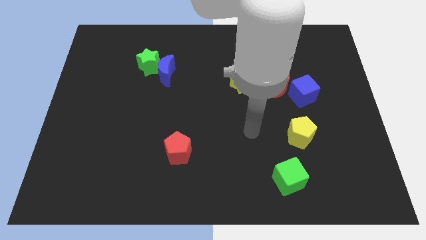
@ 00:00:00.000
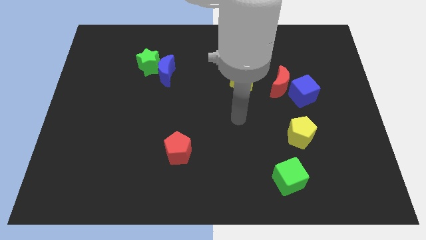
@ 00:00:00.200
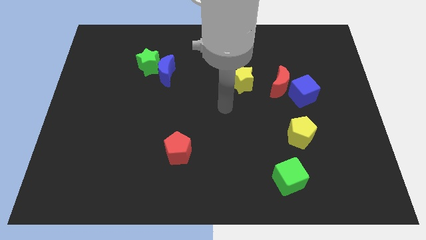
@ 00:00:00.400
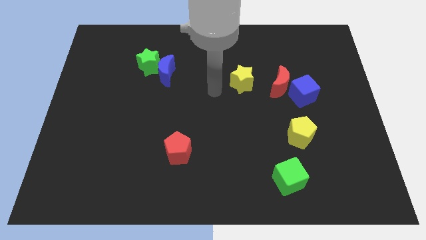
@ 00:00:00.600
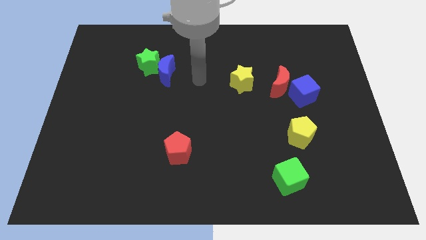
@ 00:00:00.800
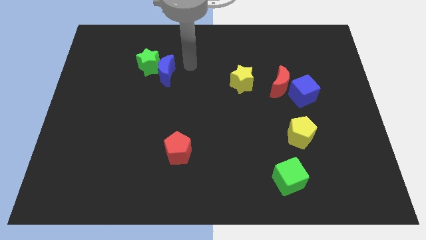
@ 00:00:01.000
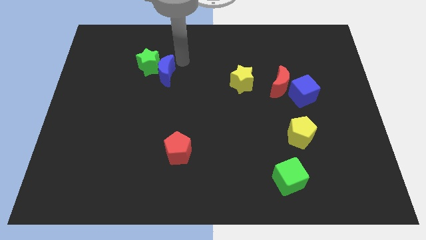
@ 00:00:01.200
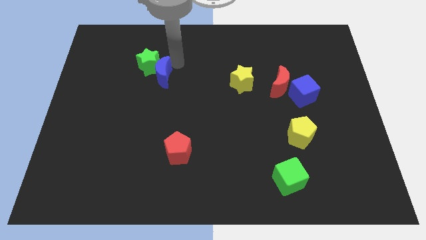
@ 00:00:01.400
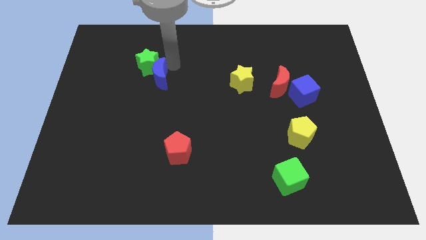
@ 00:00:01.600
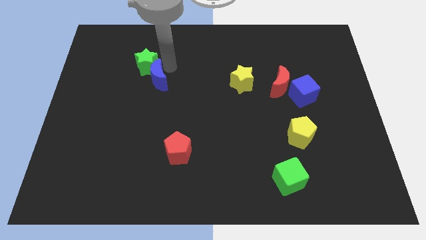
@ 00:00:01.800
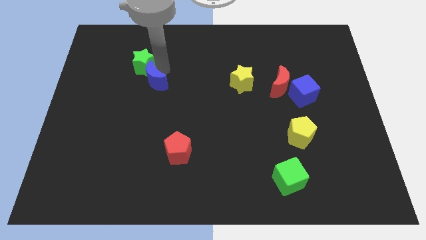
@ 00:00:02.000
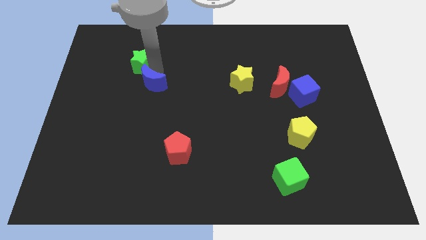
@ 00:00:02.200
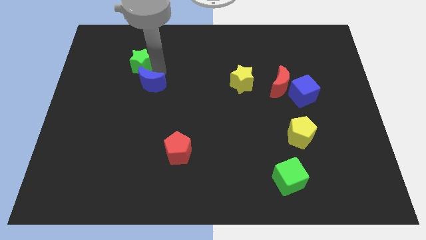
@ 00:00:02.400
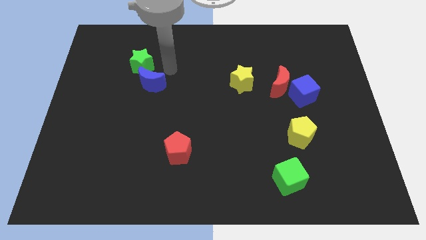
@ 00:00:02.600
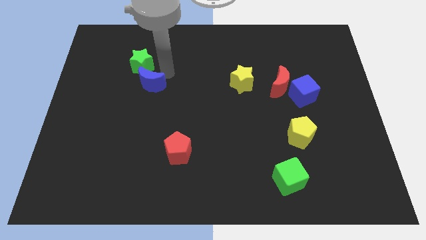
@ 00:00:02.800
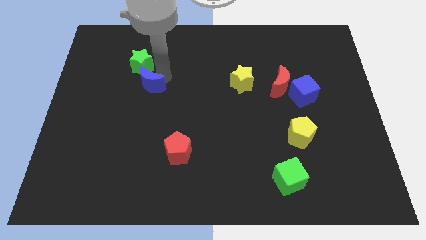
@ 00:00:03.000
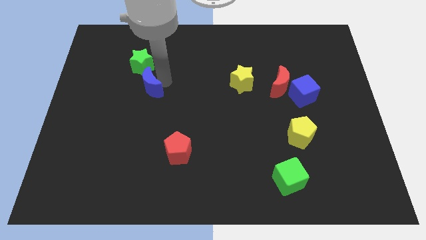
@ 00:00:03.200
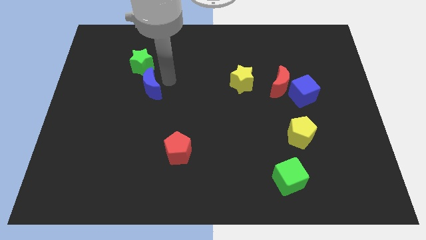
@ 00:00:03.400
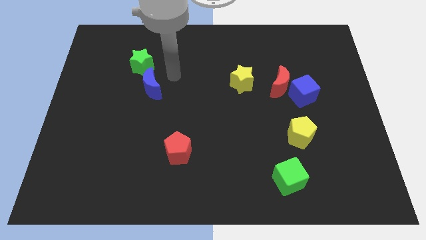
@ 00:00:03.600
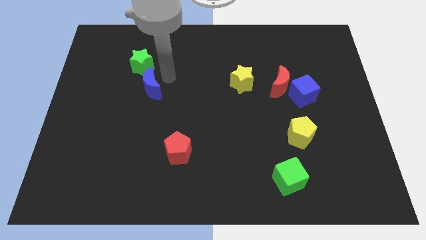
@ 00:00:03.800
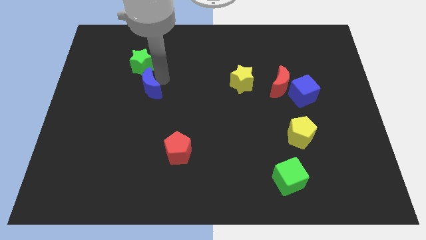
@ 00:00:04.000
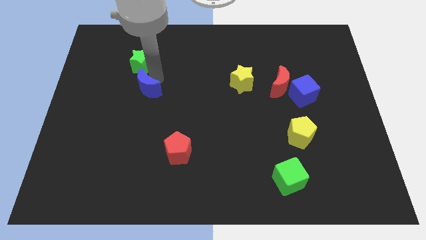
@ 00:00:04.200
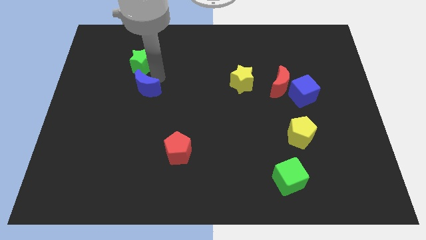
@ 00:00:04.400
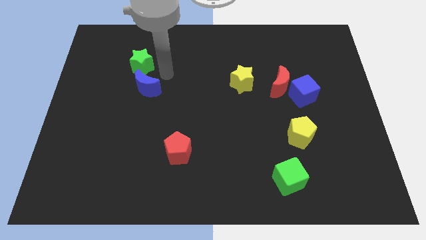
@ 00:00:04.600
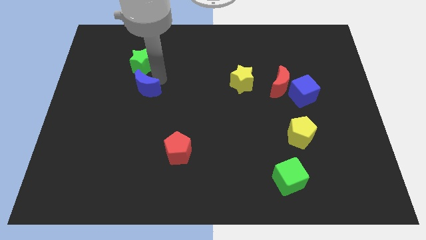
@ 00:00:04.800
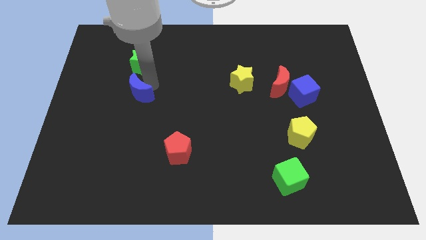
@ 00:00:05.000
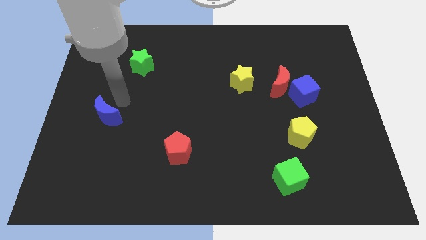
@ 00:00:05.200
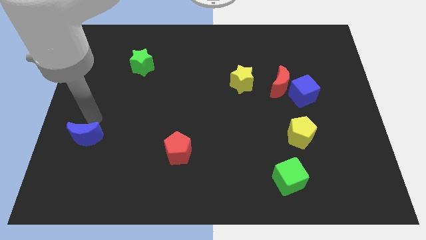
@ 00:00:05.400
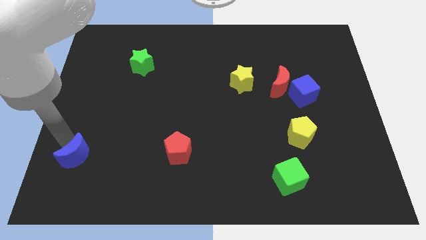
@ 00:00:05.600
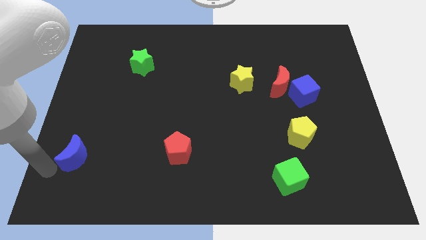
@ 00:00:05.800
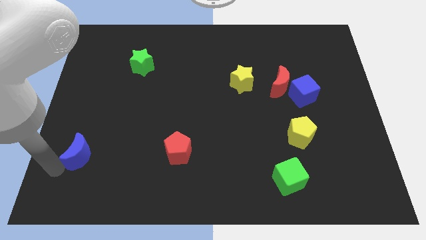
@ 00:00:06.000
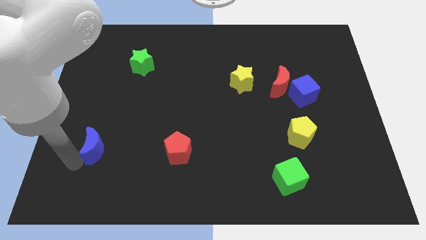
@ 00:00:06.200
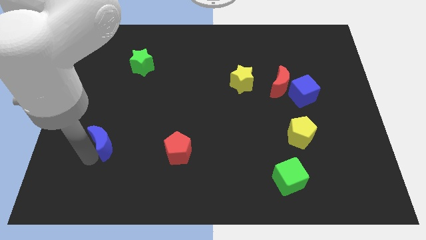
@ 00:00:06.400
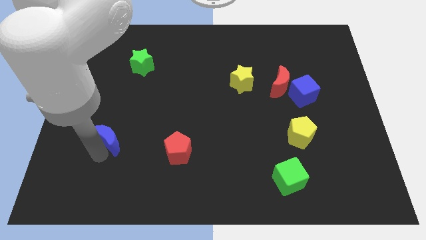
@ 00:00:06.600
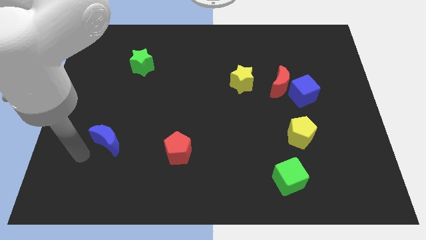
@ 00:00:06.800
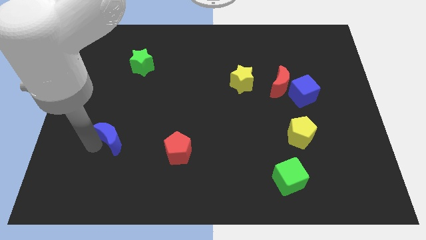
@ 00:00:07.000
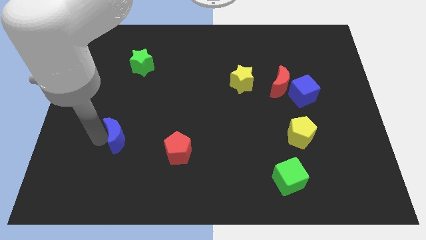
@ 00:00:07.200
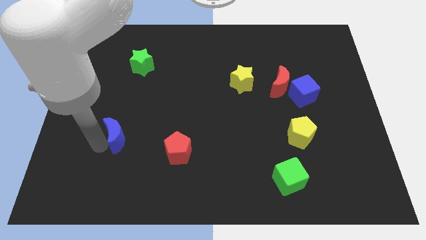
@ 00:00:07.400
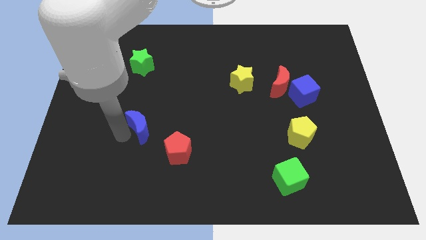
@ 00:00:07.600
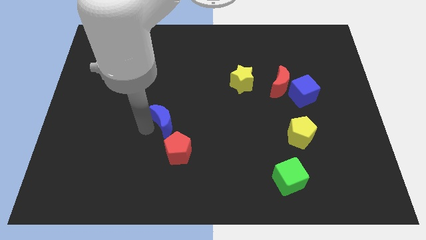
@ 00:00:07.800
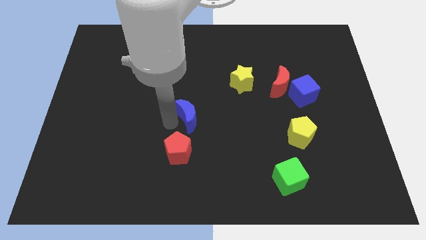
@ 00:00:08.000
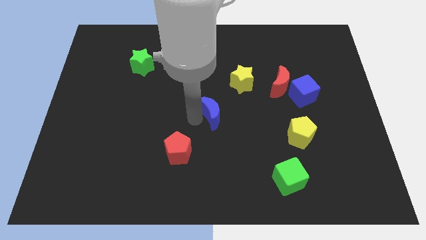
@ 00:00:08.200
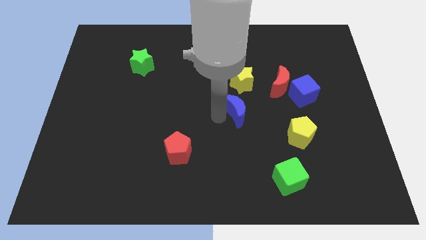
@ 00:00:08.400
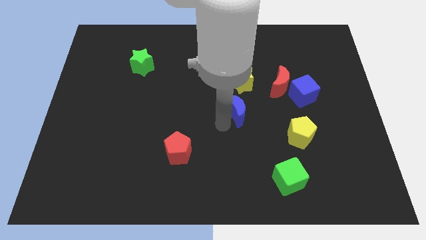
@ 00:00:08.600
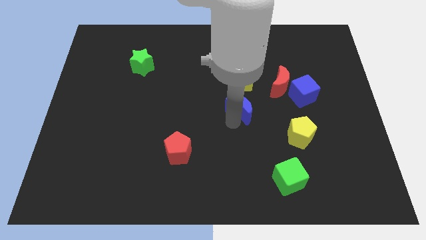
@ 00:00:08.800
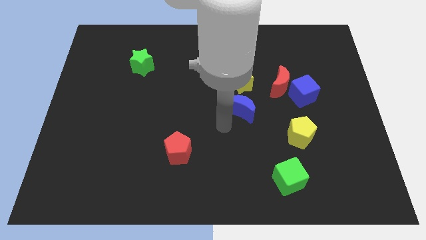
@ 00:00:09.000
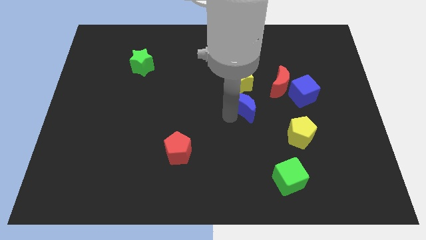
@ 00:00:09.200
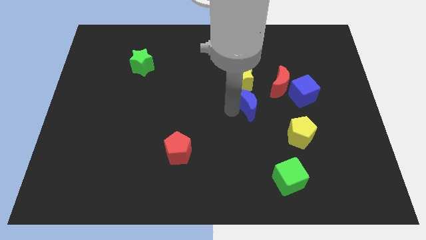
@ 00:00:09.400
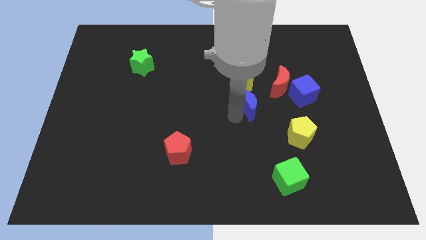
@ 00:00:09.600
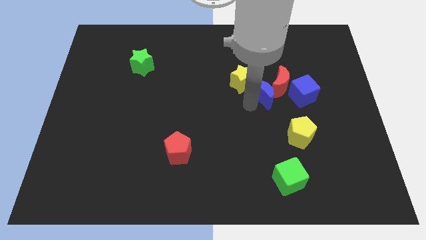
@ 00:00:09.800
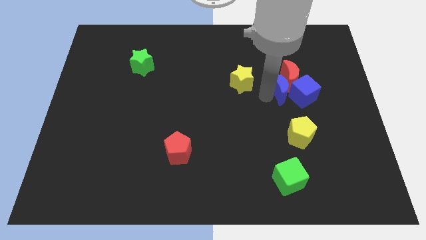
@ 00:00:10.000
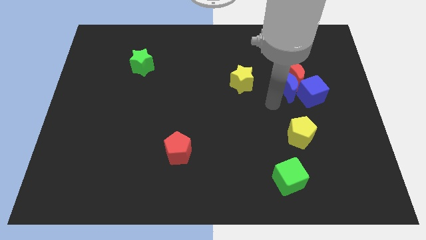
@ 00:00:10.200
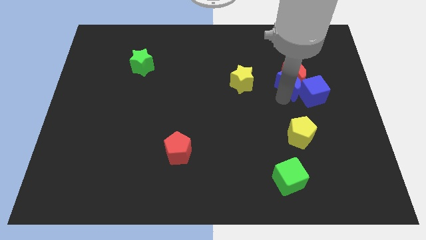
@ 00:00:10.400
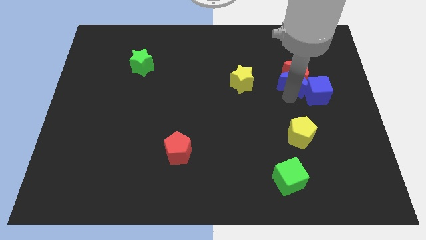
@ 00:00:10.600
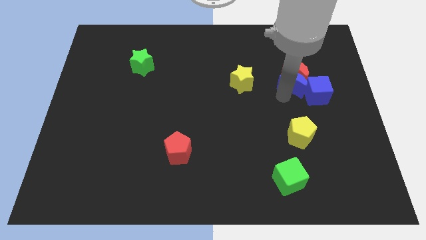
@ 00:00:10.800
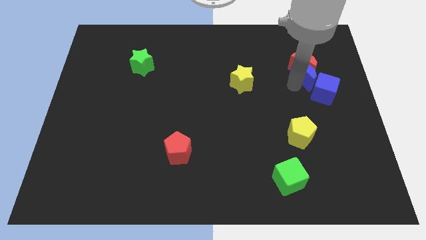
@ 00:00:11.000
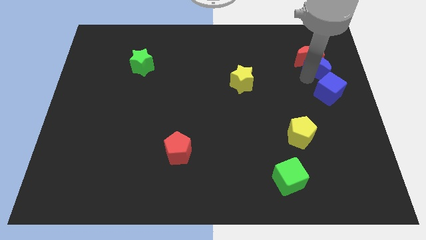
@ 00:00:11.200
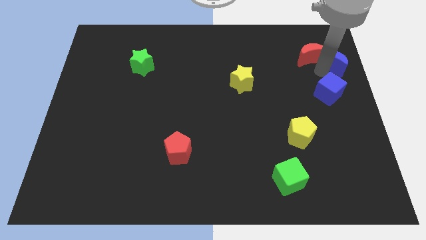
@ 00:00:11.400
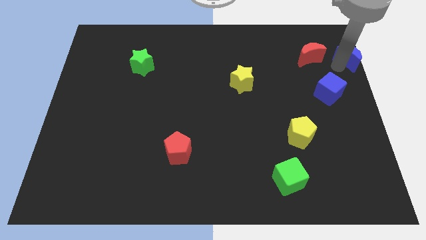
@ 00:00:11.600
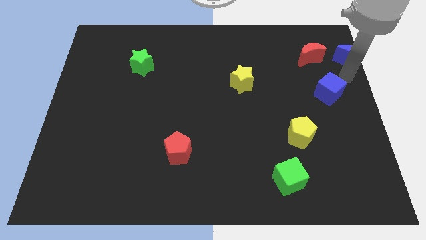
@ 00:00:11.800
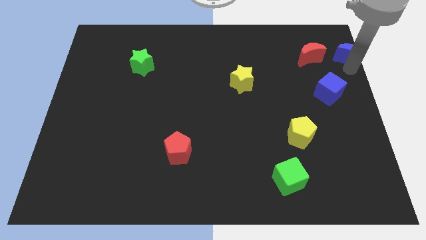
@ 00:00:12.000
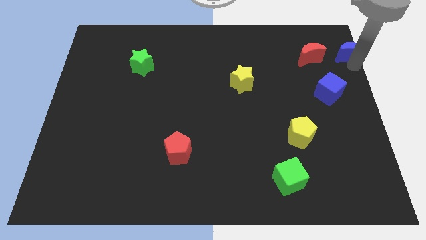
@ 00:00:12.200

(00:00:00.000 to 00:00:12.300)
put the blue moon to the top right corner
